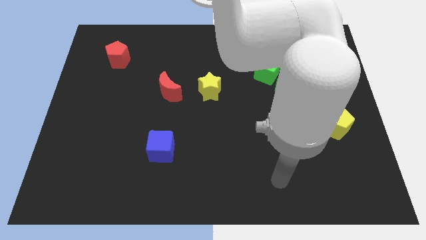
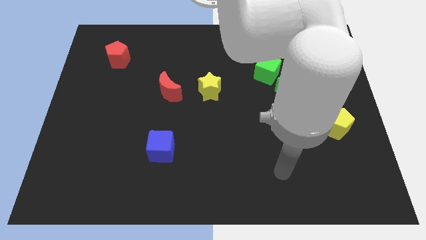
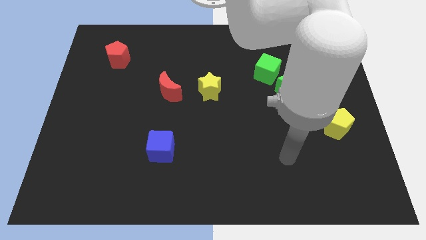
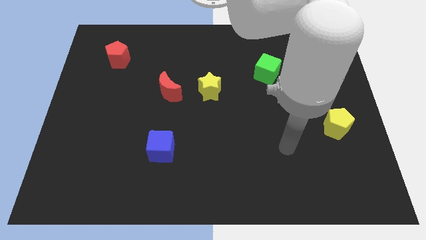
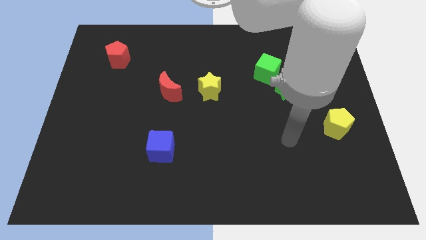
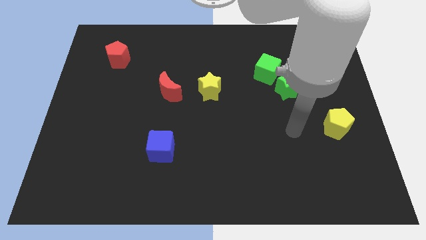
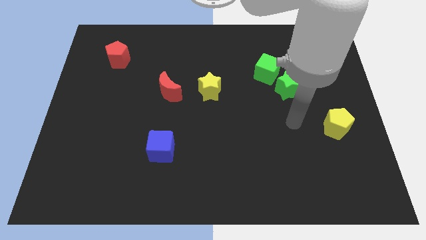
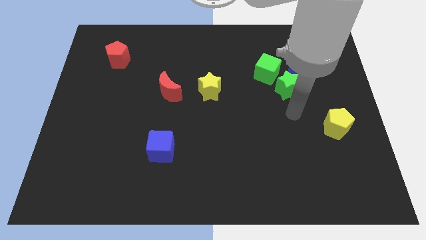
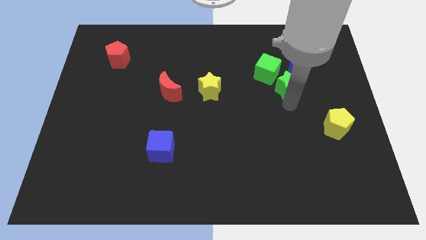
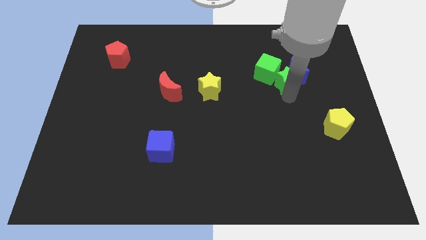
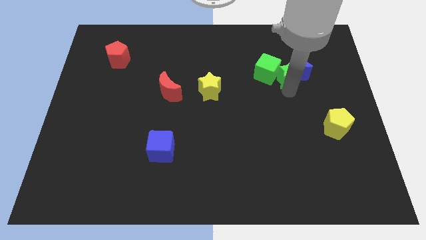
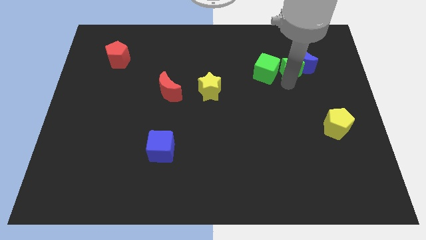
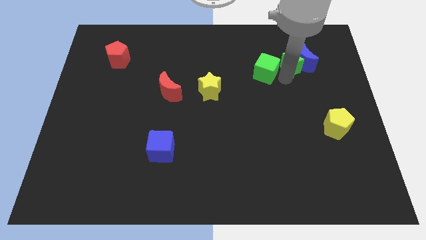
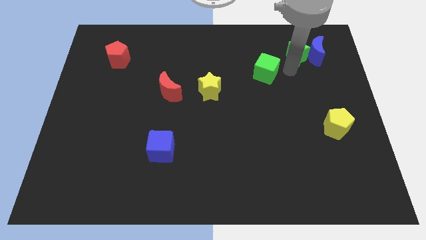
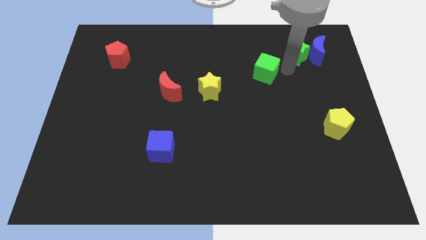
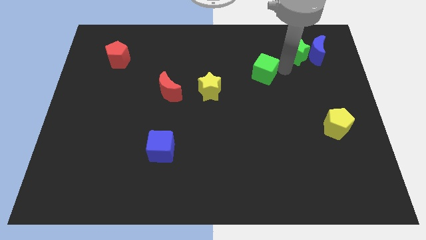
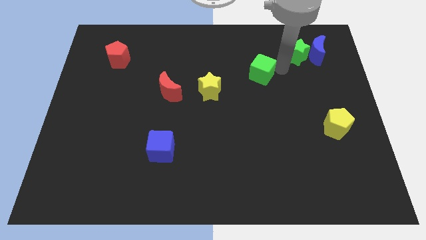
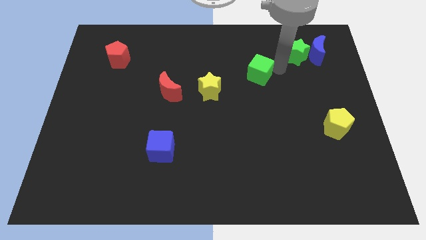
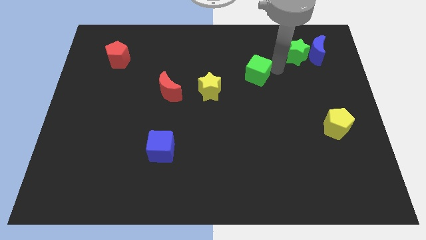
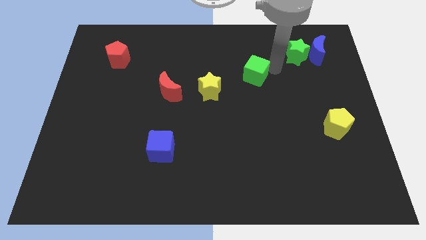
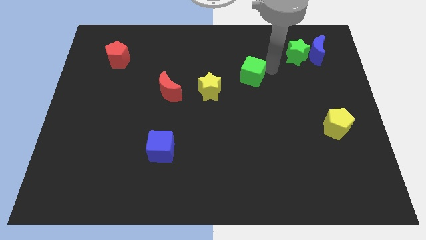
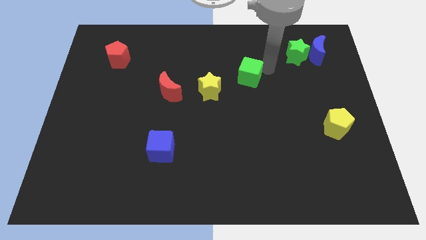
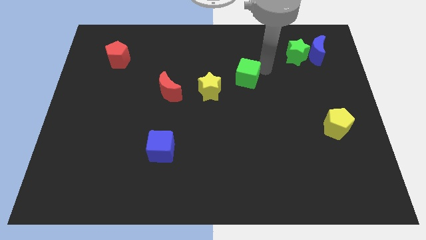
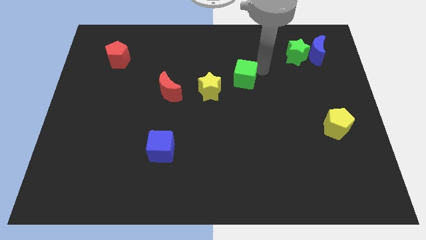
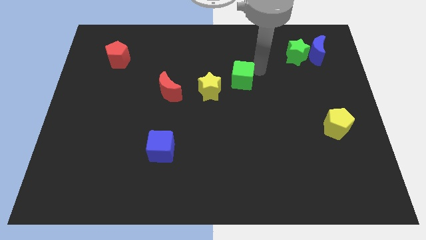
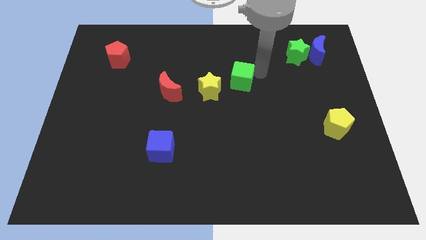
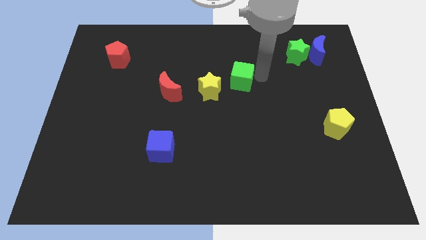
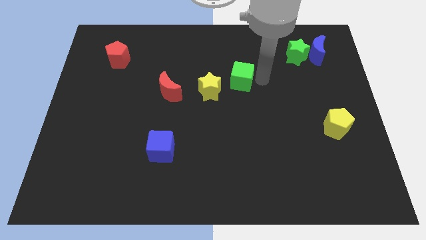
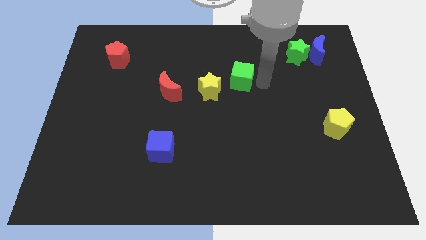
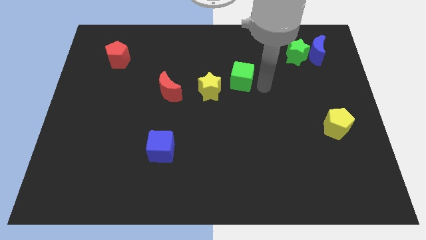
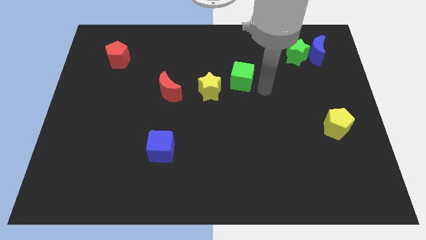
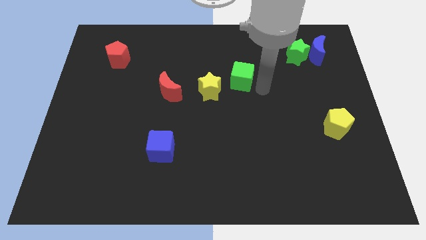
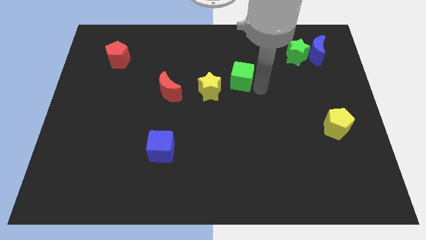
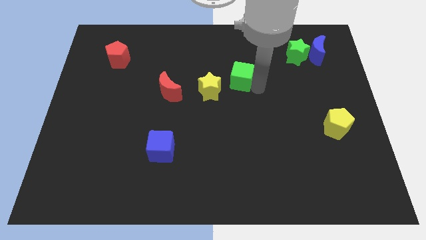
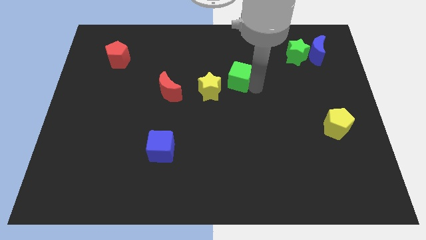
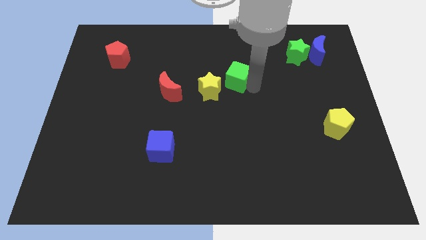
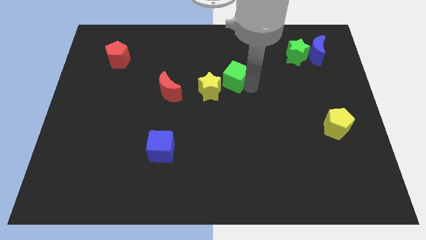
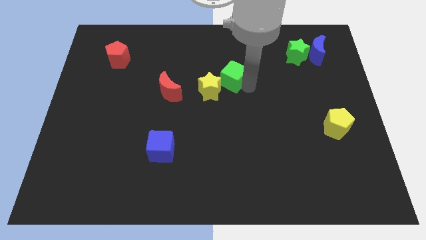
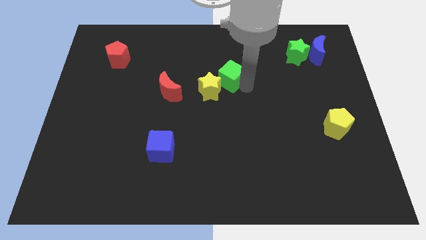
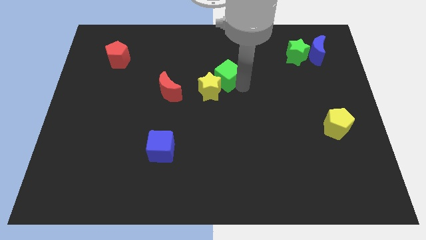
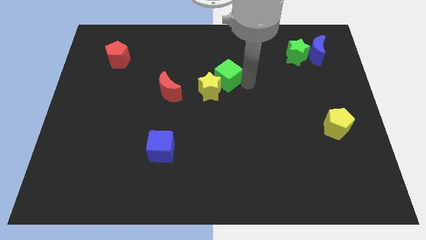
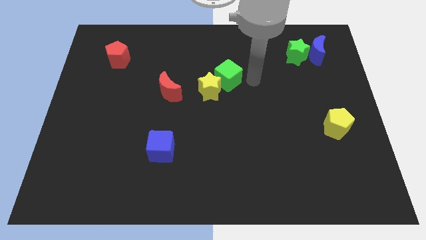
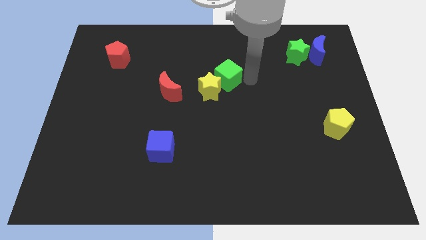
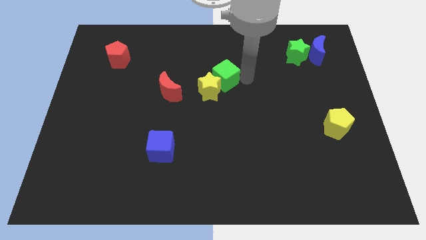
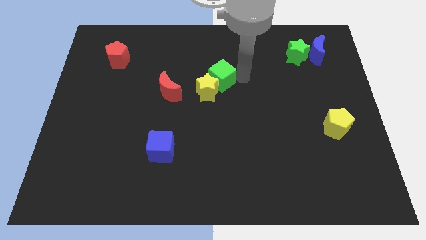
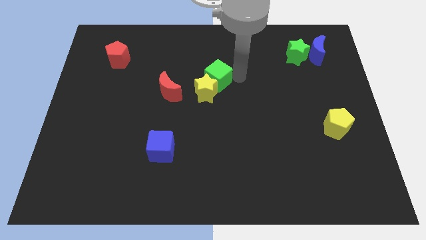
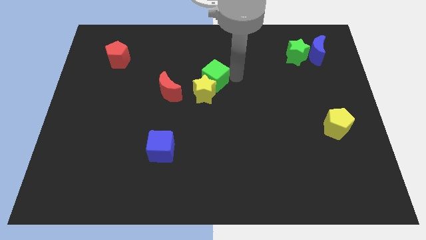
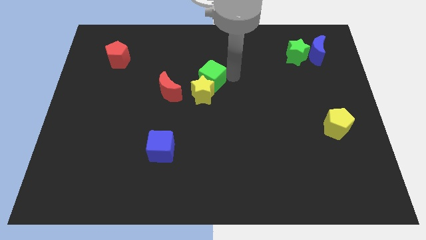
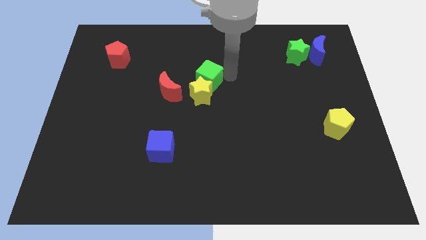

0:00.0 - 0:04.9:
put the green cube diagonally up and to the right of the red moon

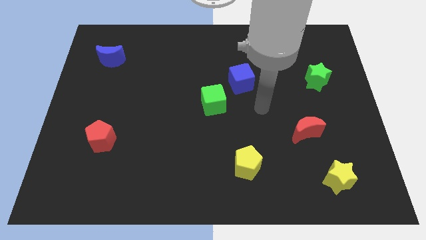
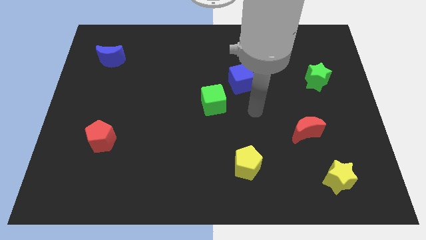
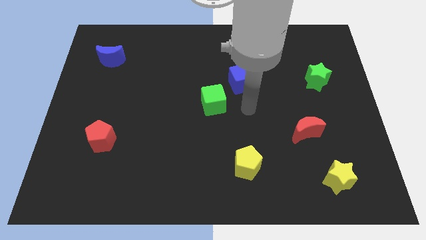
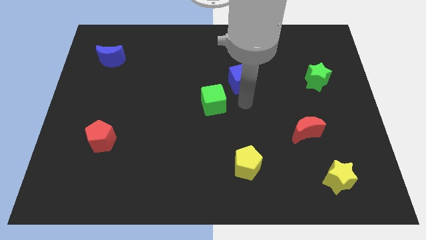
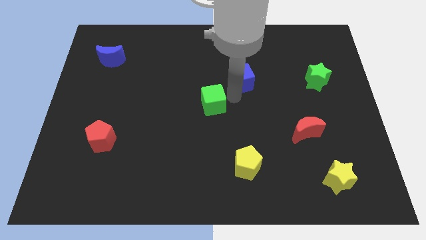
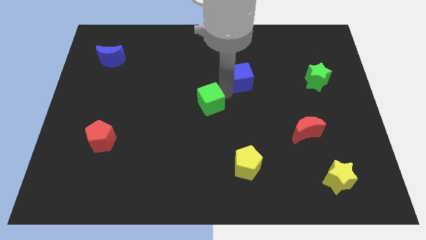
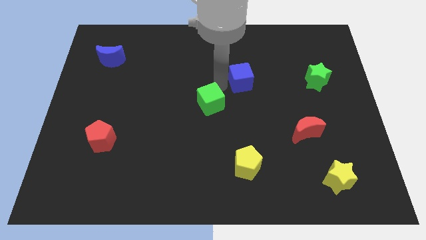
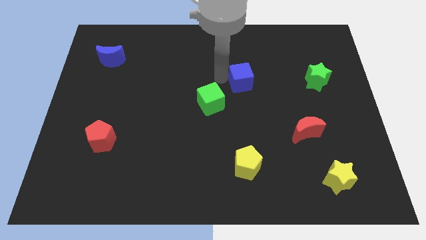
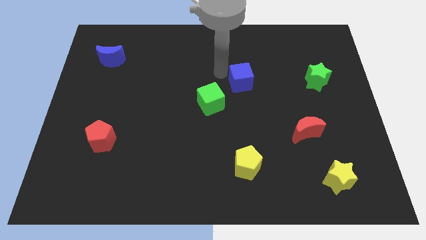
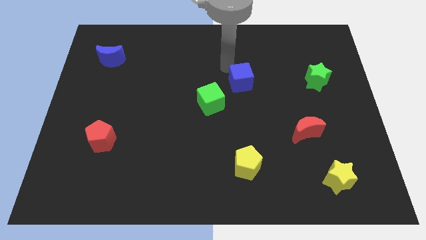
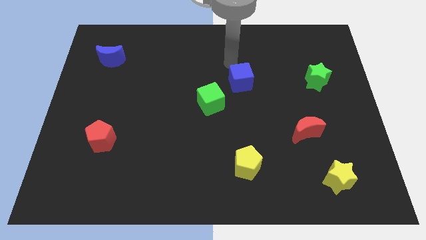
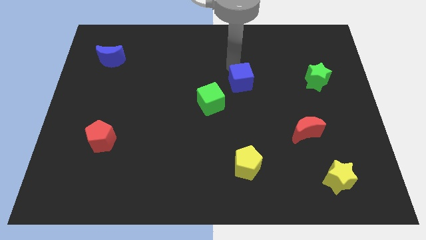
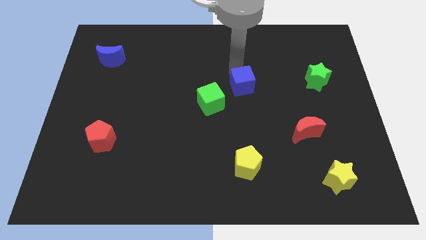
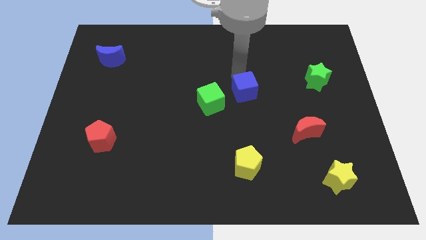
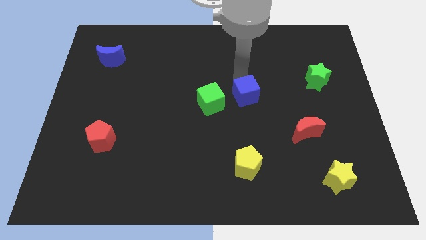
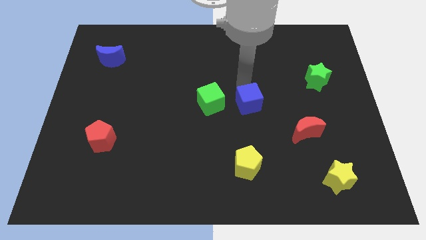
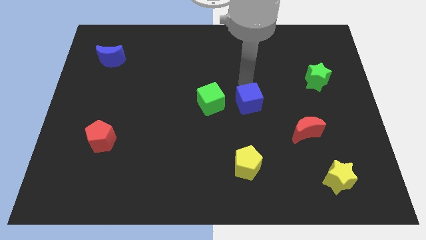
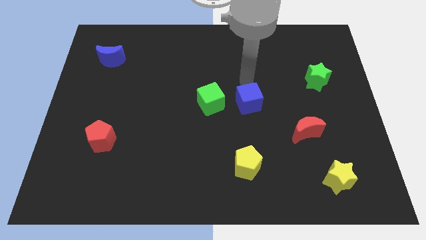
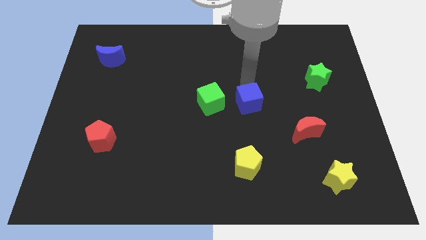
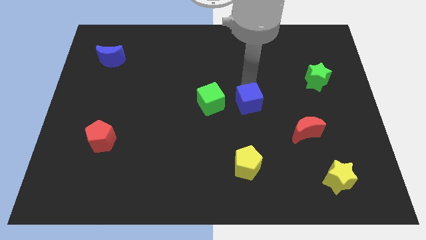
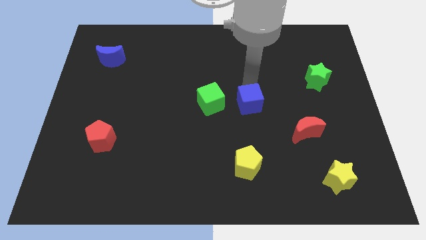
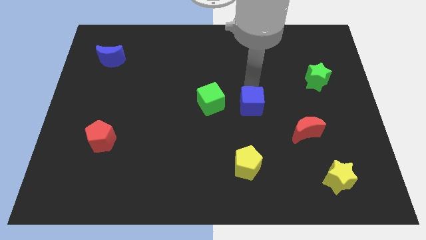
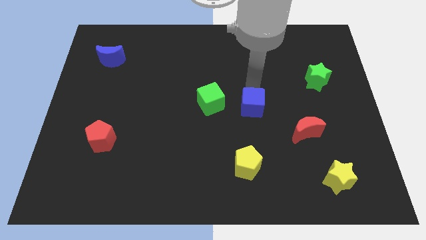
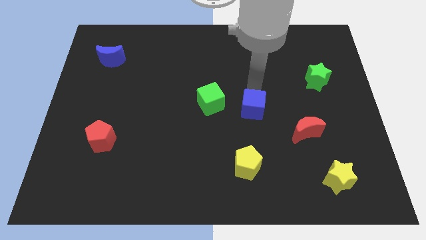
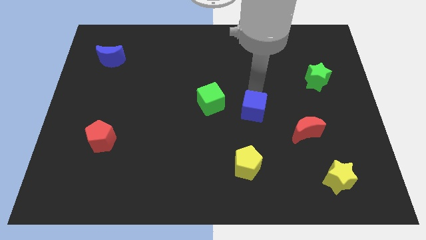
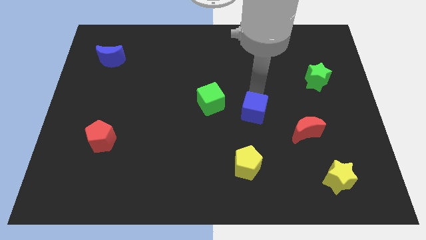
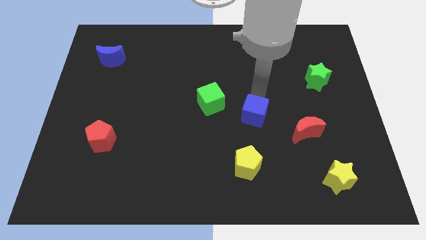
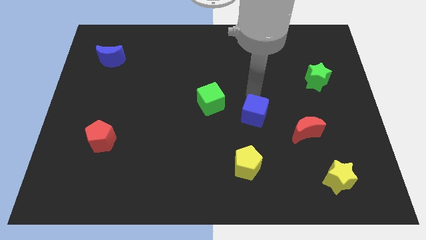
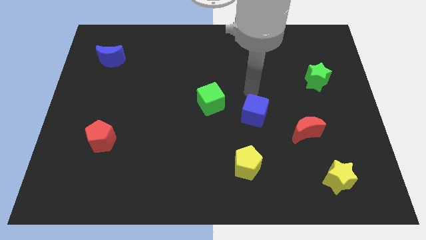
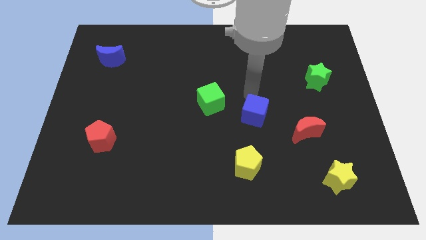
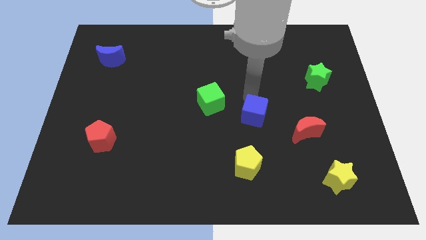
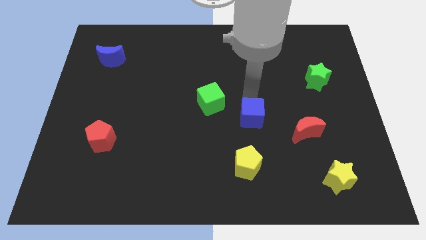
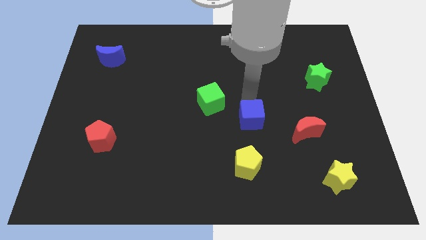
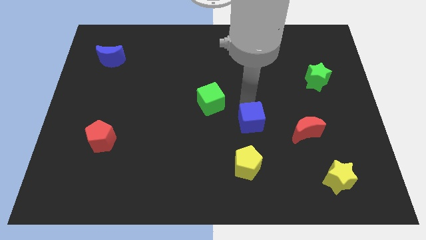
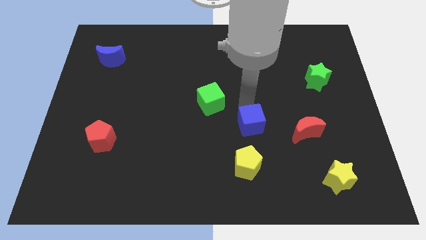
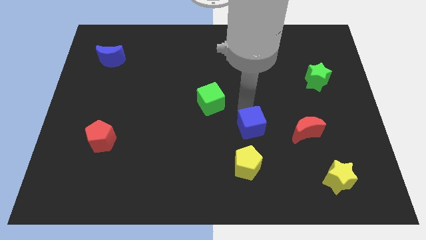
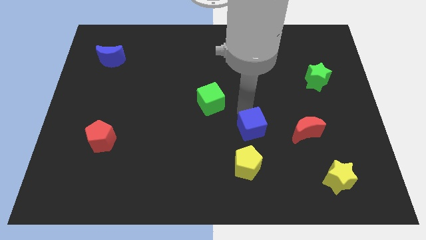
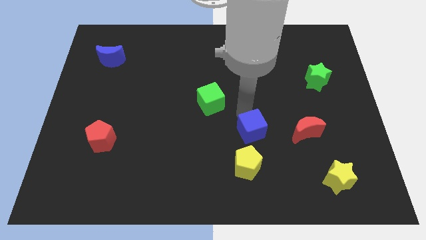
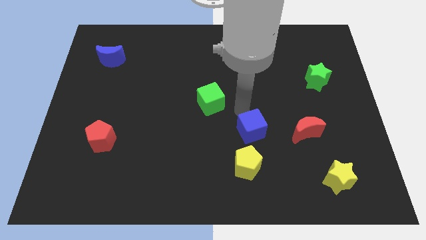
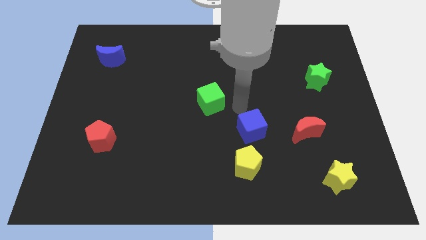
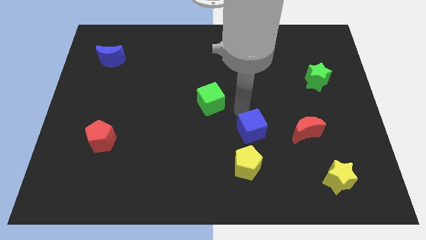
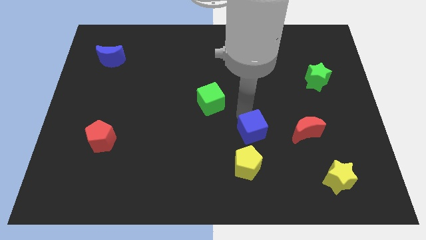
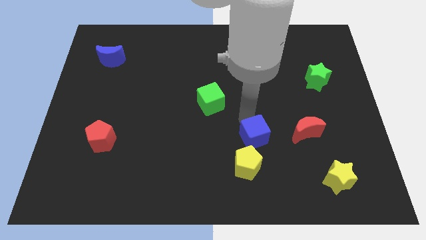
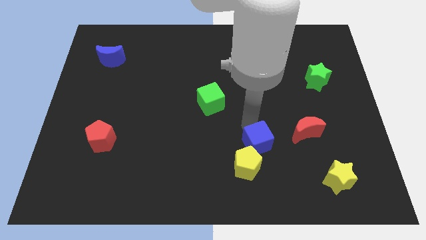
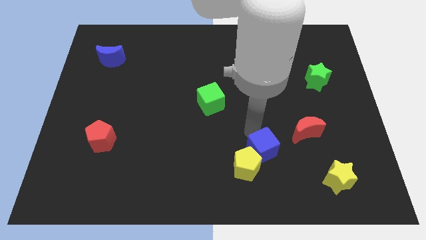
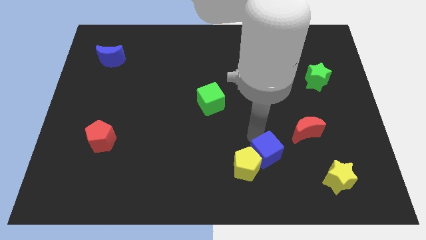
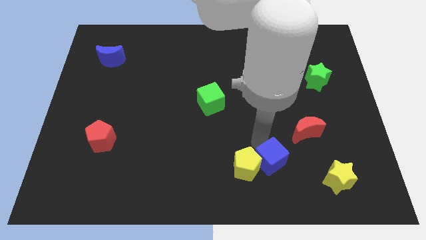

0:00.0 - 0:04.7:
move the blue cube to the left of the yellow star
